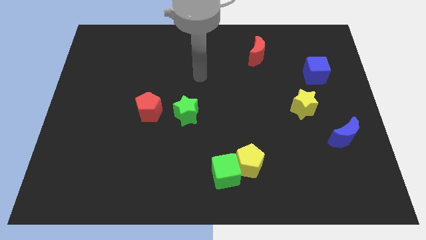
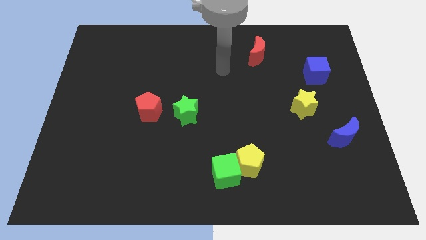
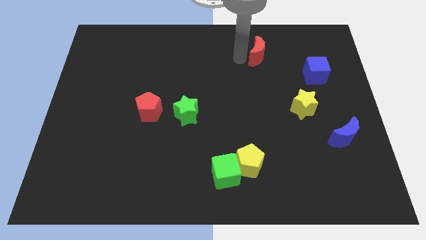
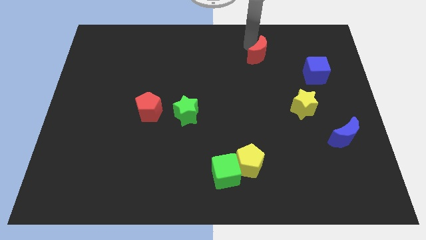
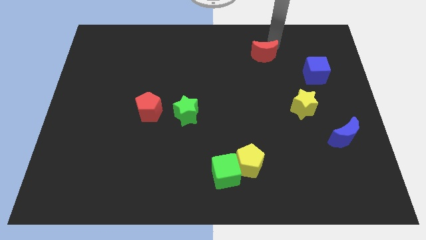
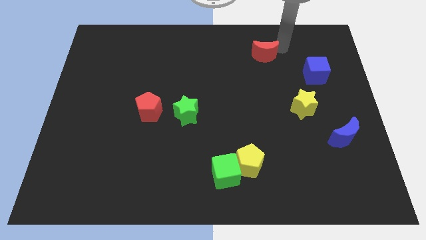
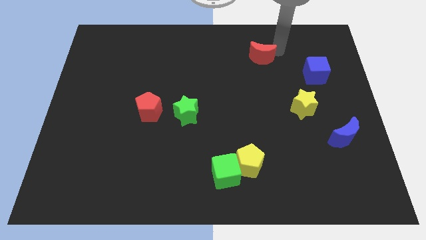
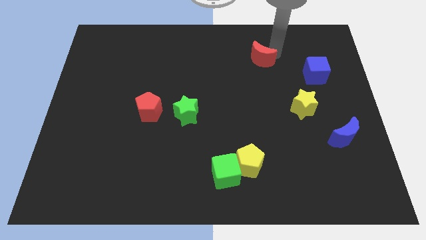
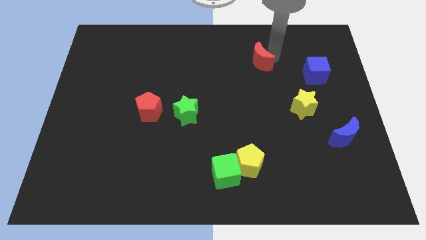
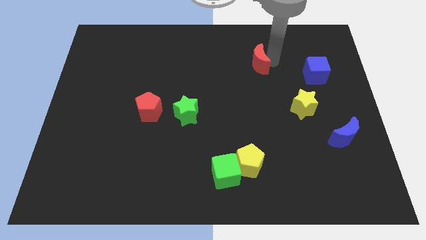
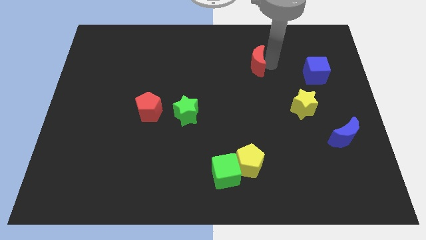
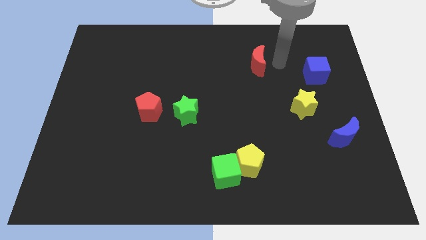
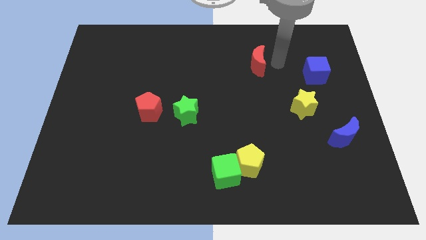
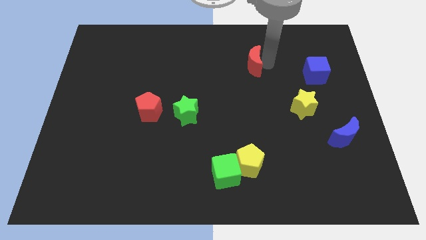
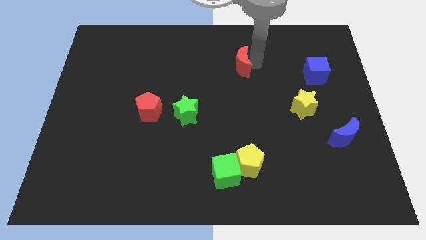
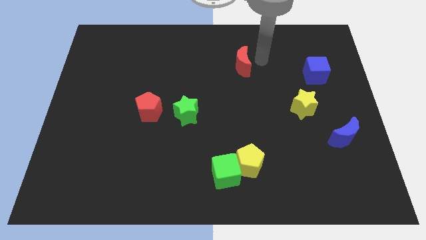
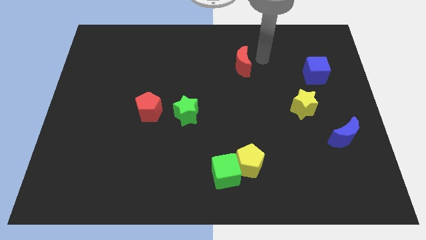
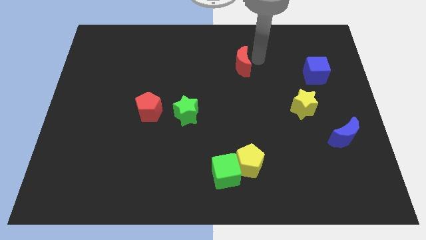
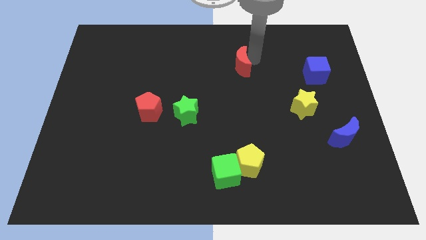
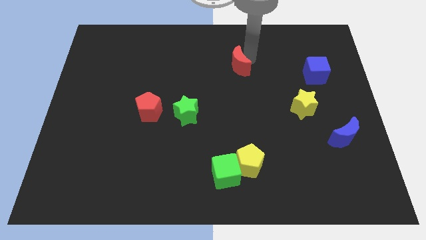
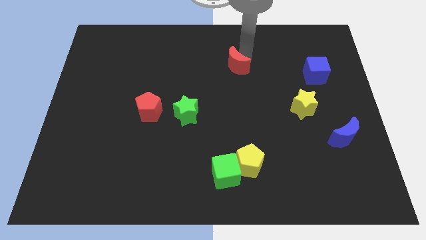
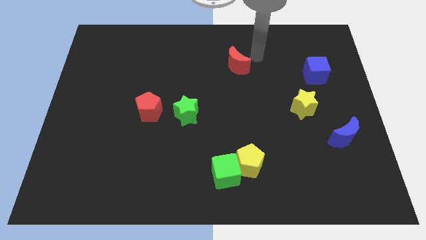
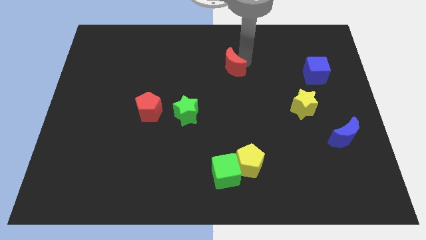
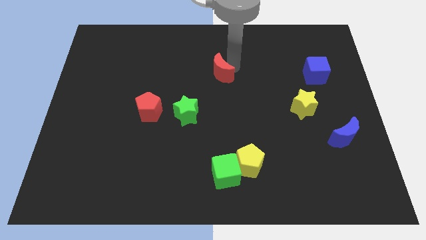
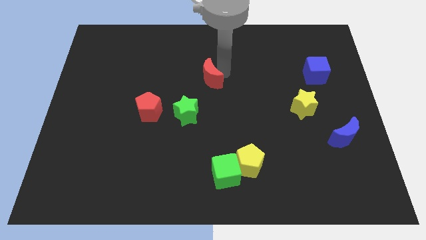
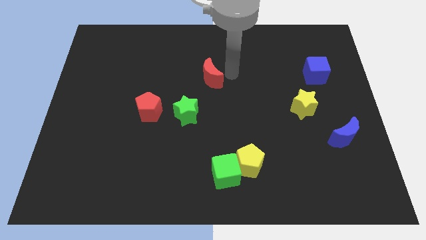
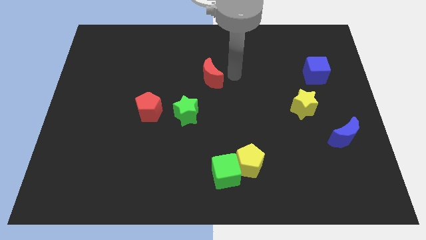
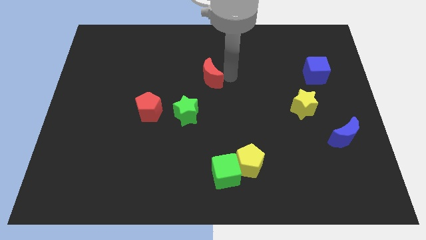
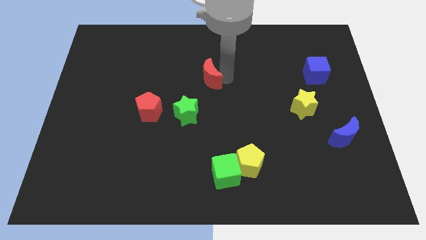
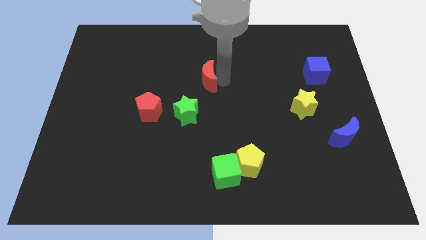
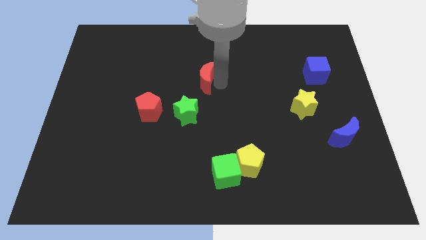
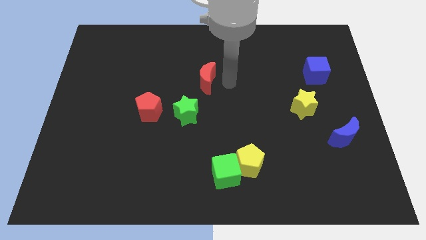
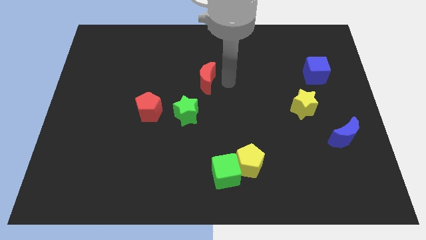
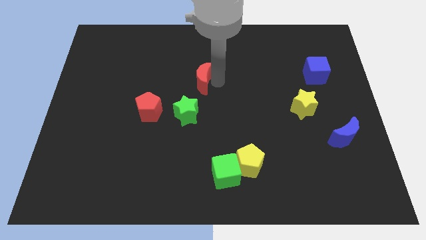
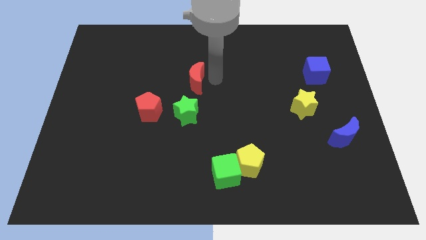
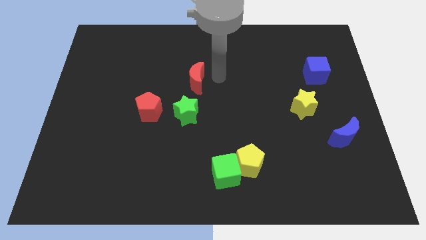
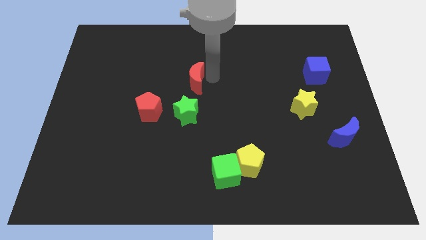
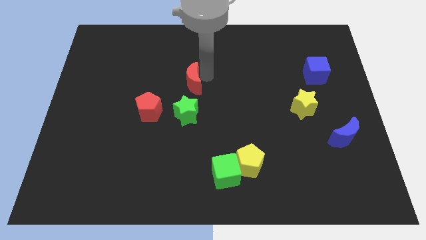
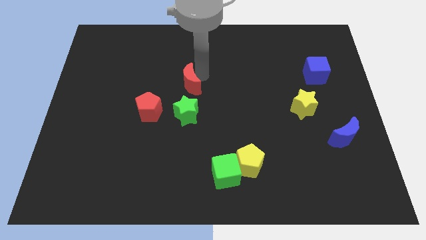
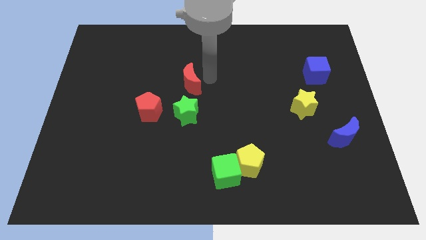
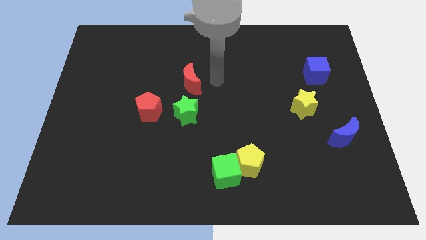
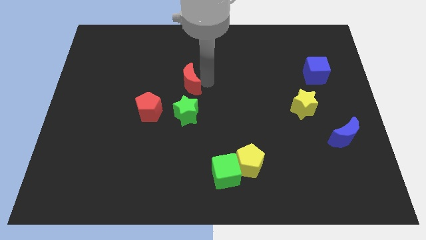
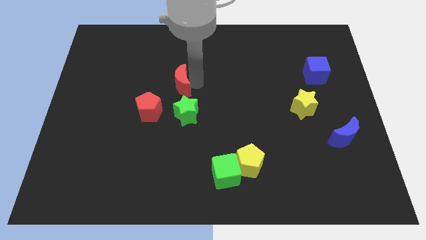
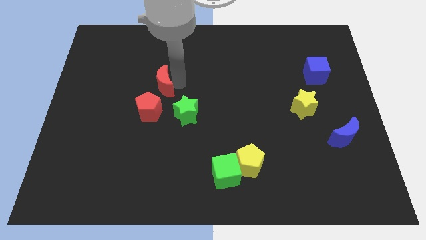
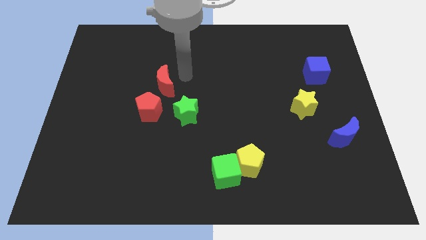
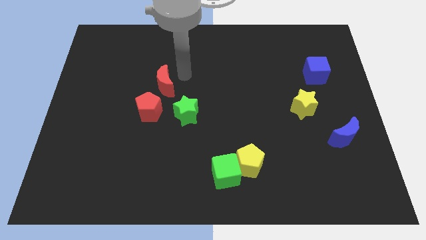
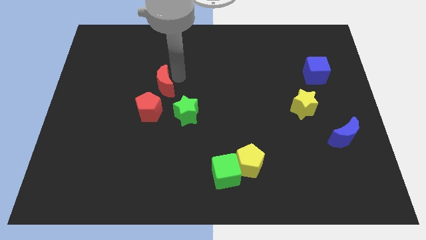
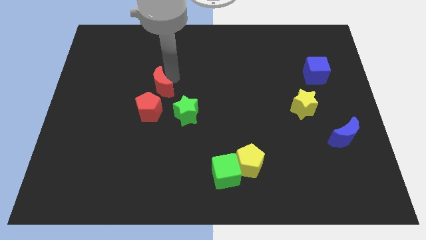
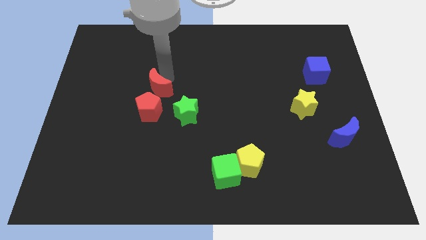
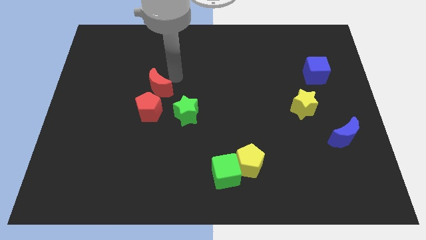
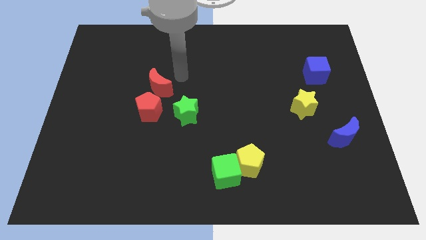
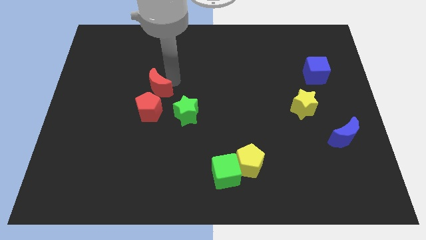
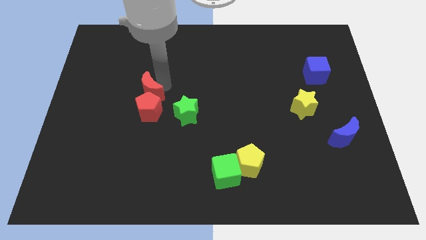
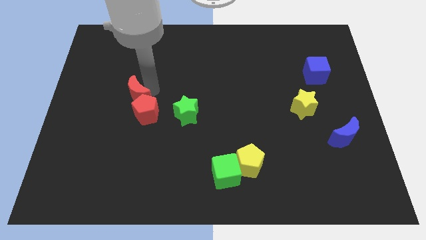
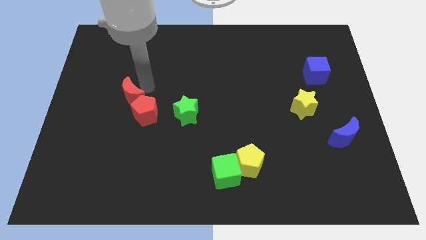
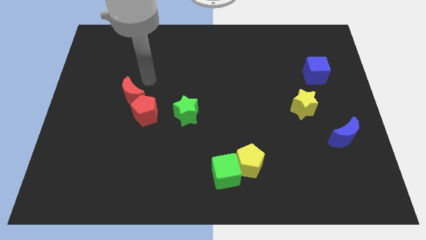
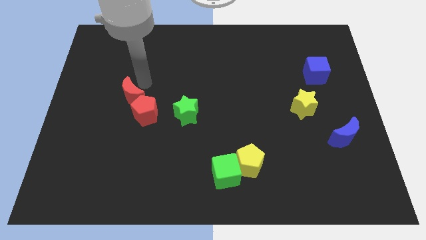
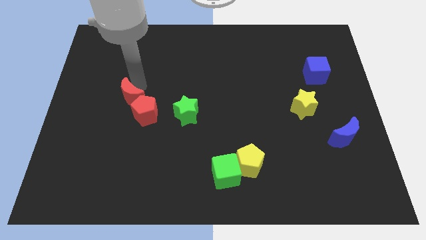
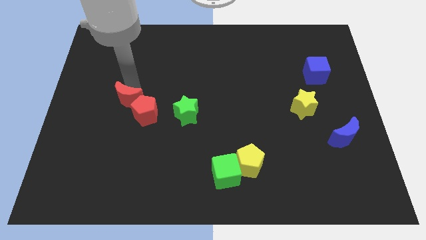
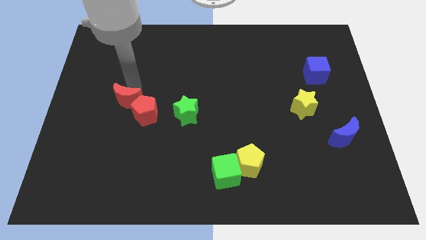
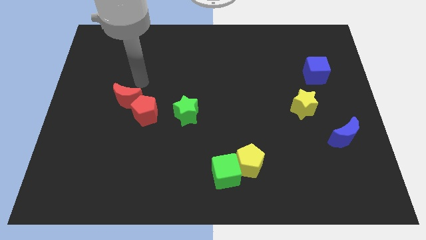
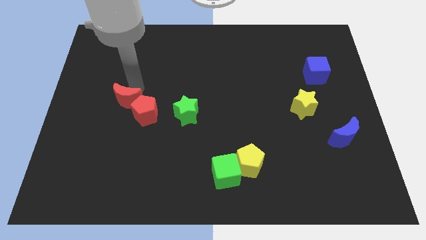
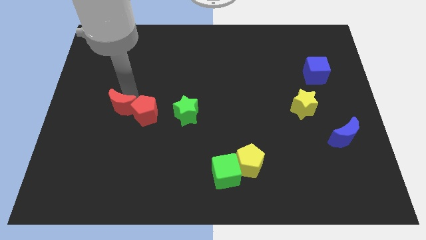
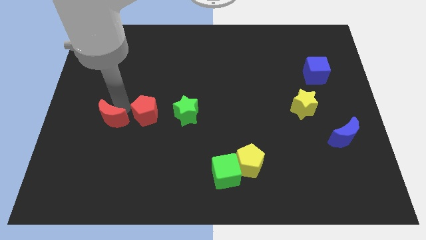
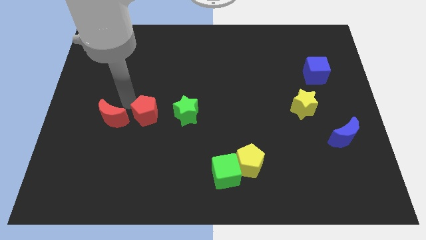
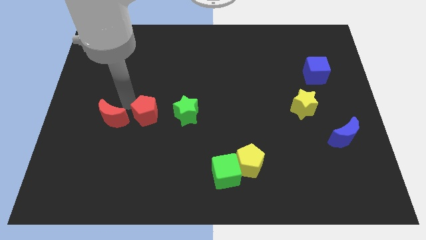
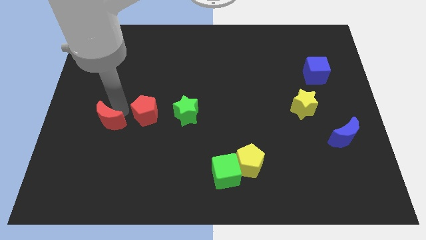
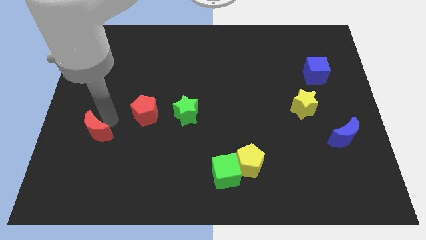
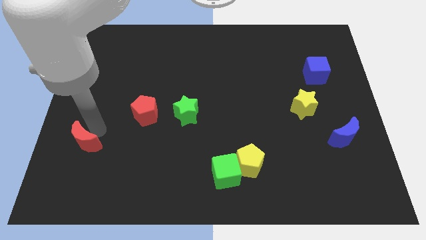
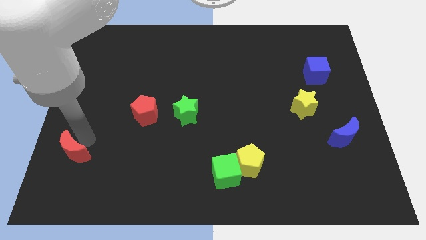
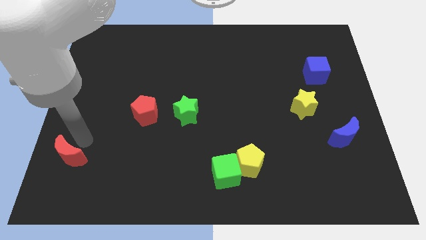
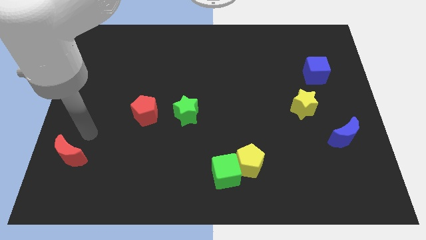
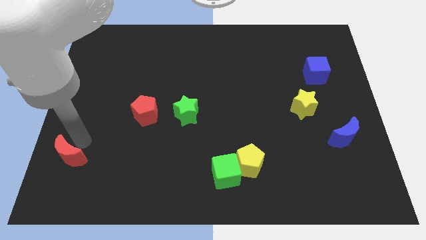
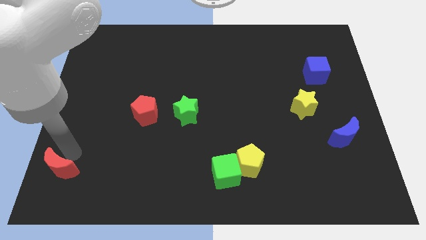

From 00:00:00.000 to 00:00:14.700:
move the red moon to the bottom left
